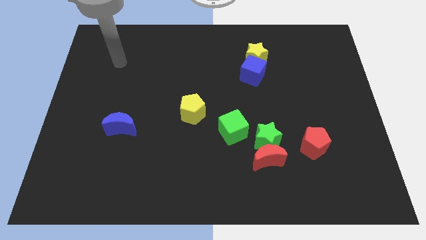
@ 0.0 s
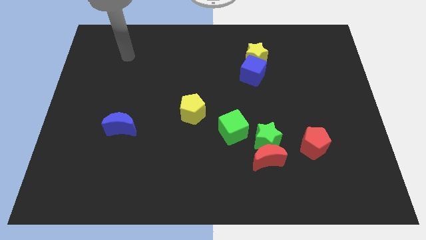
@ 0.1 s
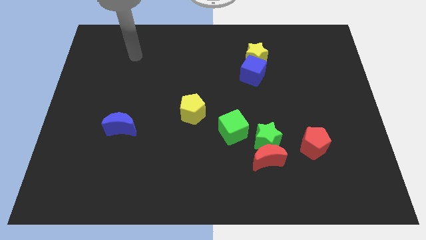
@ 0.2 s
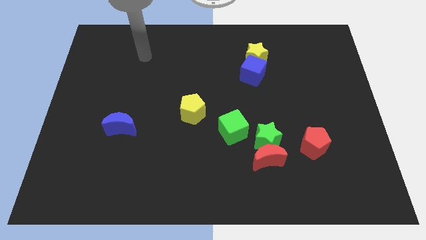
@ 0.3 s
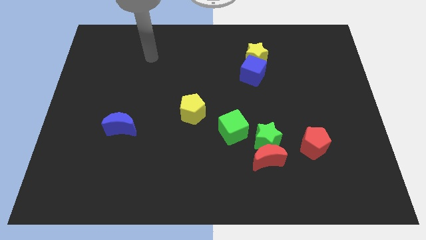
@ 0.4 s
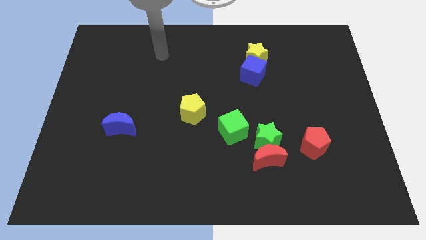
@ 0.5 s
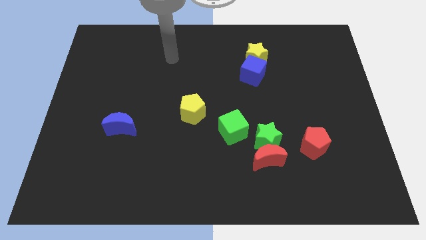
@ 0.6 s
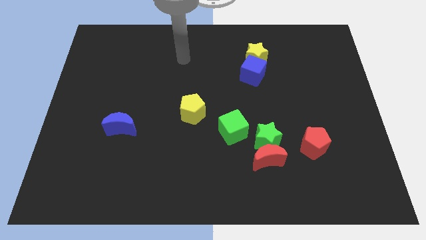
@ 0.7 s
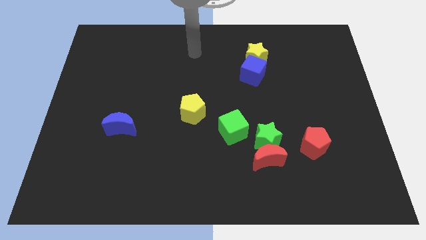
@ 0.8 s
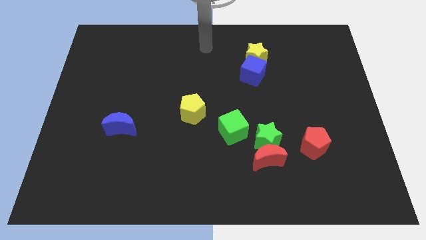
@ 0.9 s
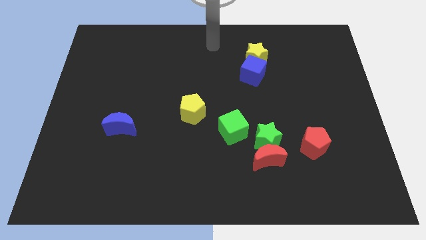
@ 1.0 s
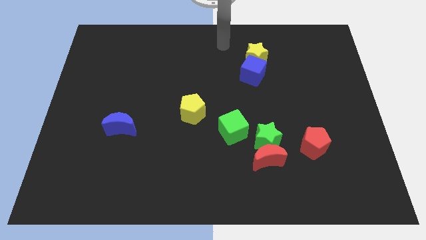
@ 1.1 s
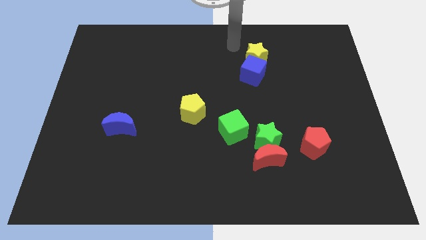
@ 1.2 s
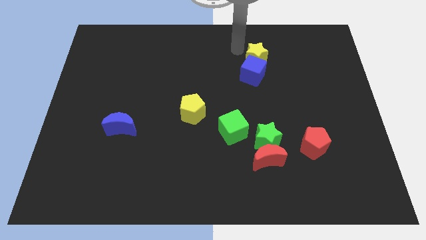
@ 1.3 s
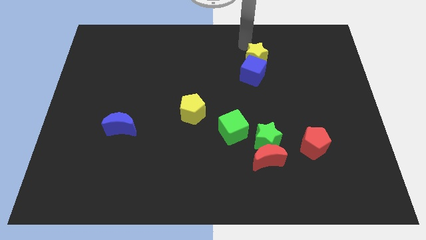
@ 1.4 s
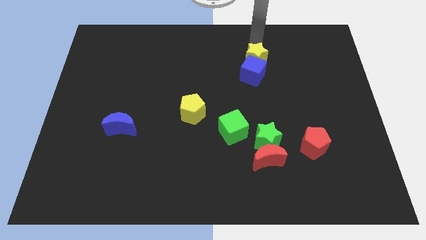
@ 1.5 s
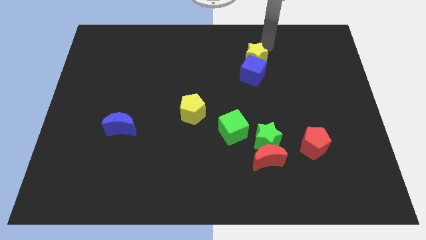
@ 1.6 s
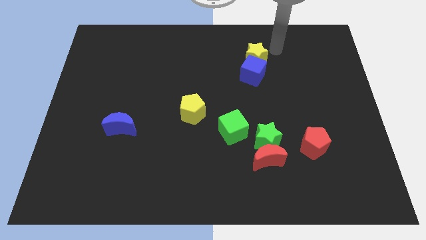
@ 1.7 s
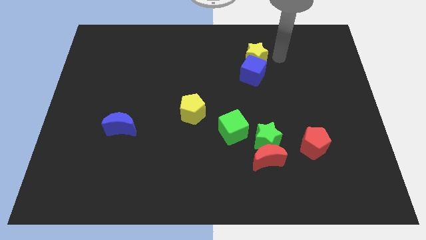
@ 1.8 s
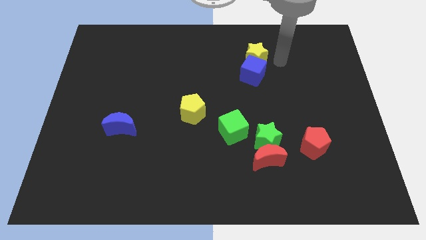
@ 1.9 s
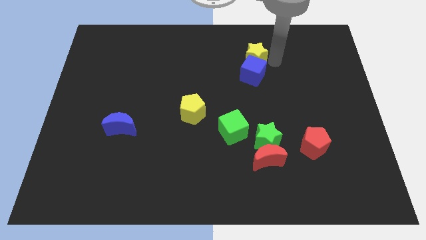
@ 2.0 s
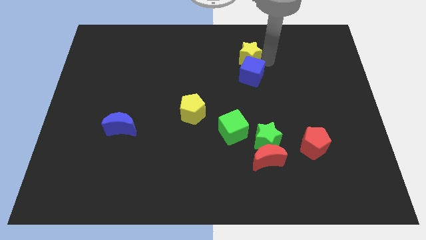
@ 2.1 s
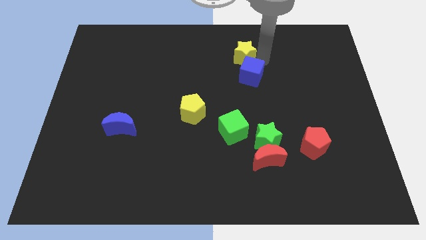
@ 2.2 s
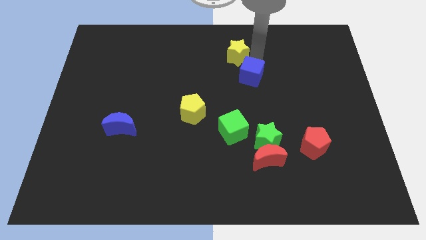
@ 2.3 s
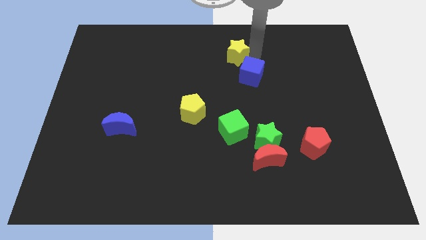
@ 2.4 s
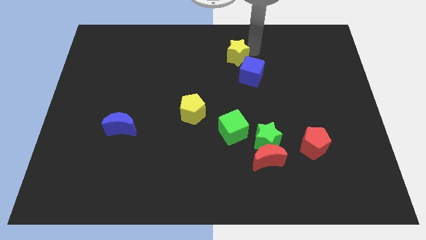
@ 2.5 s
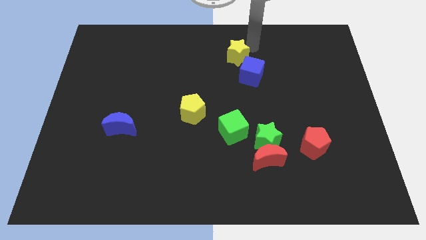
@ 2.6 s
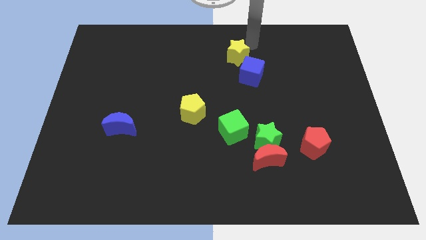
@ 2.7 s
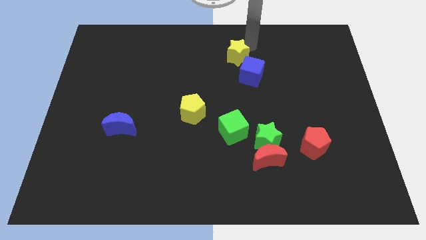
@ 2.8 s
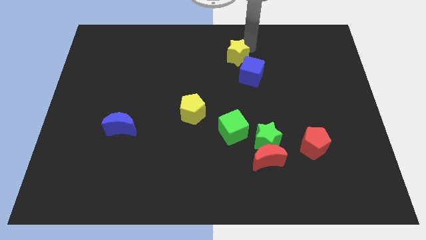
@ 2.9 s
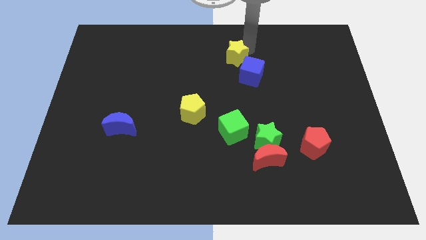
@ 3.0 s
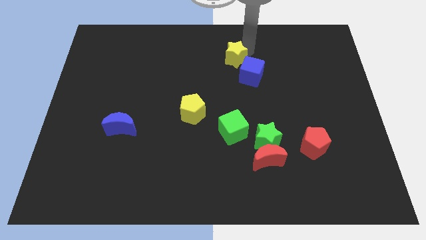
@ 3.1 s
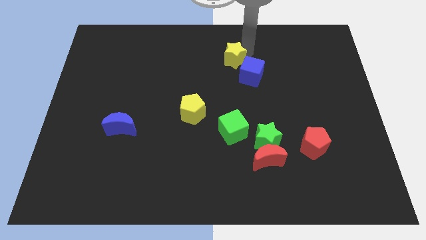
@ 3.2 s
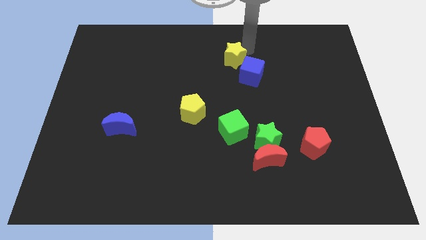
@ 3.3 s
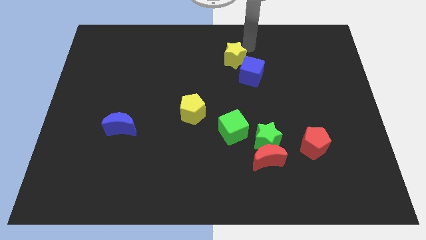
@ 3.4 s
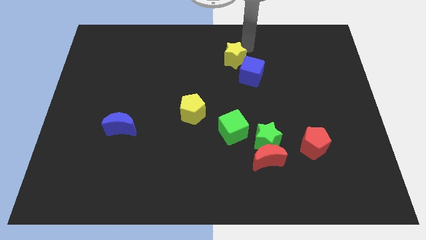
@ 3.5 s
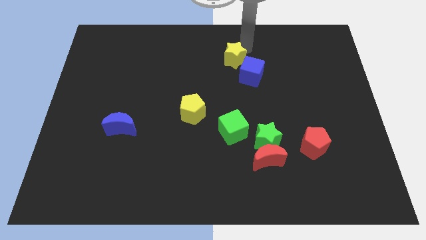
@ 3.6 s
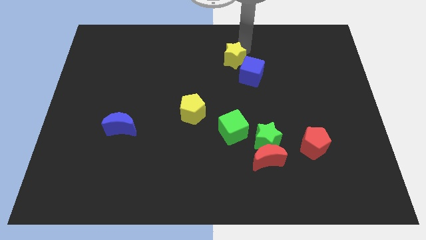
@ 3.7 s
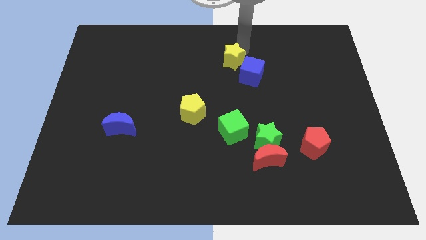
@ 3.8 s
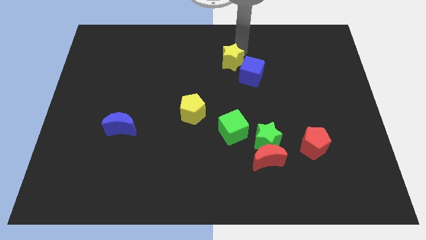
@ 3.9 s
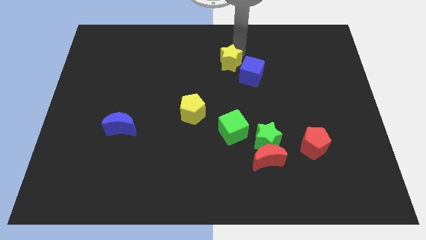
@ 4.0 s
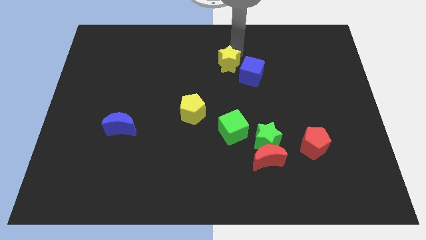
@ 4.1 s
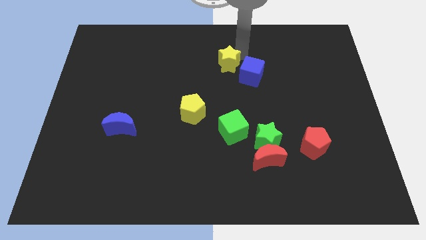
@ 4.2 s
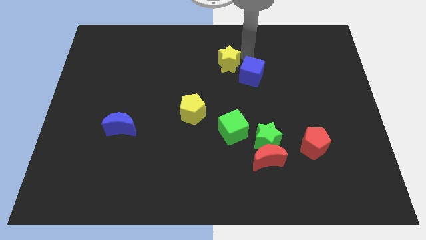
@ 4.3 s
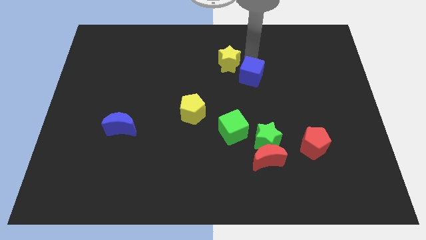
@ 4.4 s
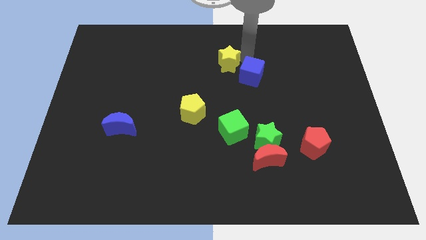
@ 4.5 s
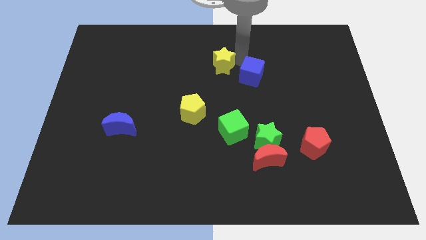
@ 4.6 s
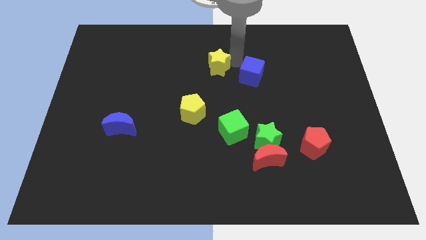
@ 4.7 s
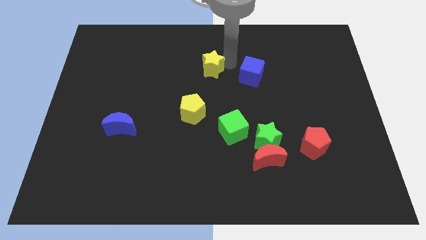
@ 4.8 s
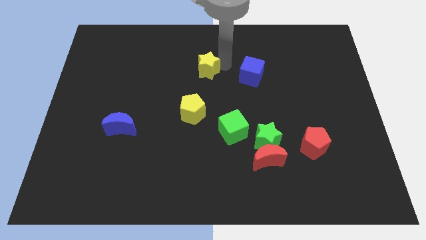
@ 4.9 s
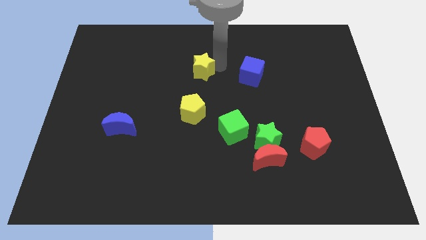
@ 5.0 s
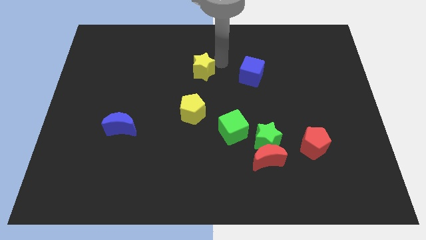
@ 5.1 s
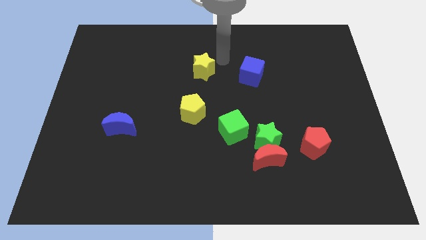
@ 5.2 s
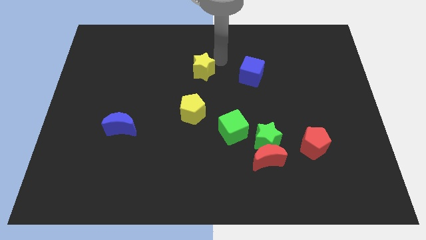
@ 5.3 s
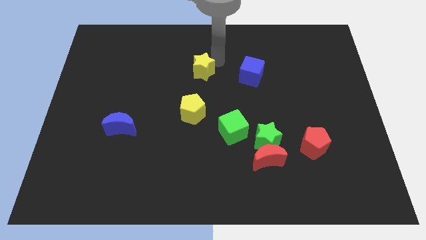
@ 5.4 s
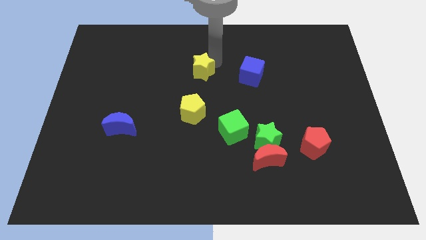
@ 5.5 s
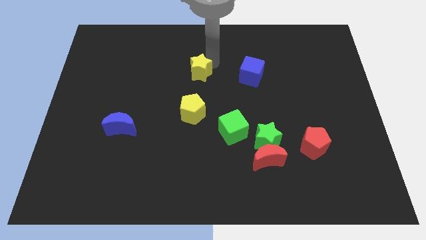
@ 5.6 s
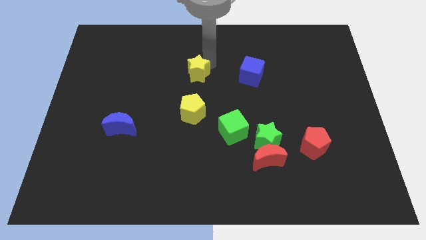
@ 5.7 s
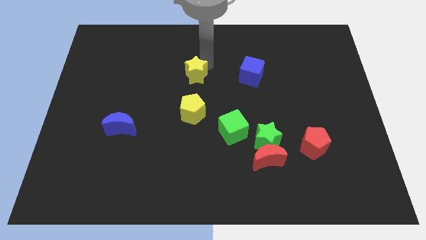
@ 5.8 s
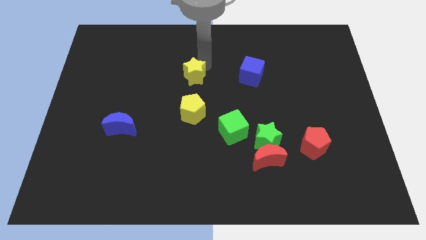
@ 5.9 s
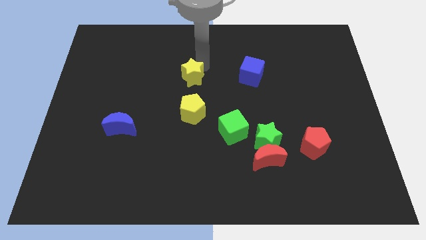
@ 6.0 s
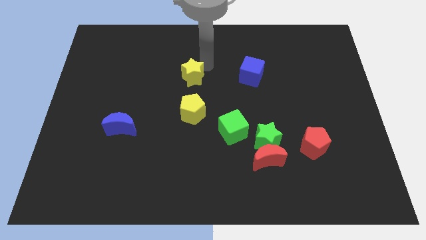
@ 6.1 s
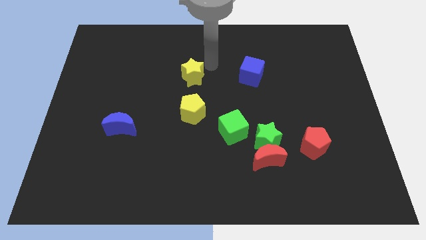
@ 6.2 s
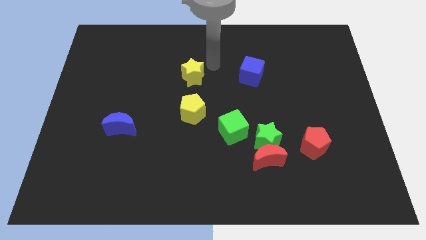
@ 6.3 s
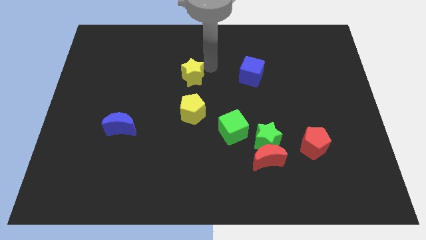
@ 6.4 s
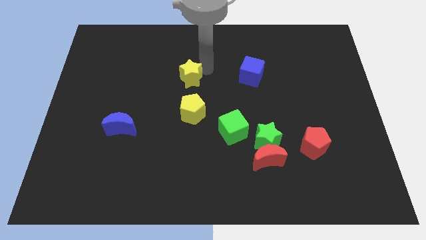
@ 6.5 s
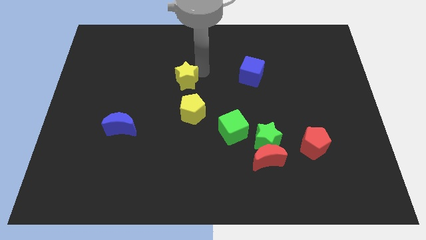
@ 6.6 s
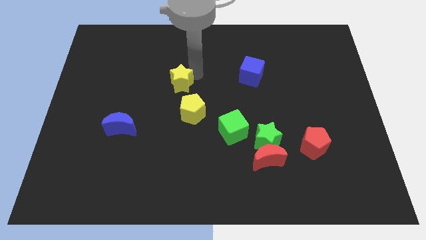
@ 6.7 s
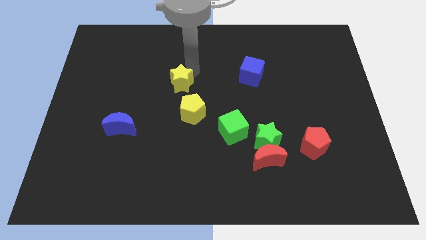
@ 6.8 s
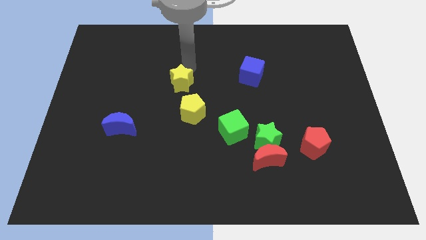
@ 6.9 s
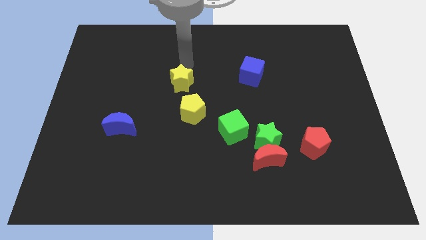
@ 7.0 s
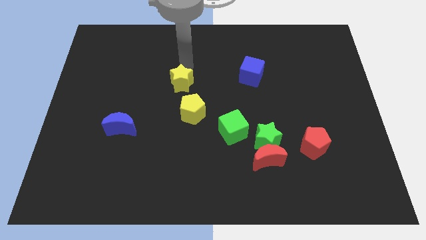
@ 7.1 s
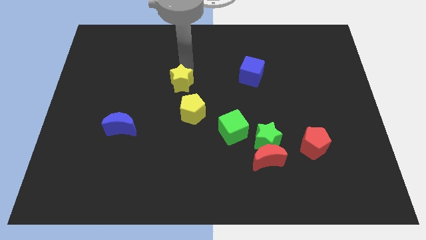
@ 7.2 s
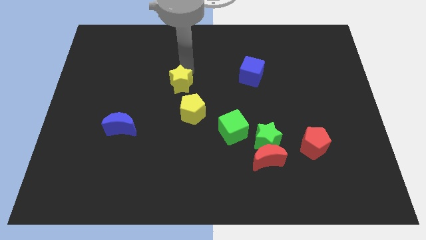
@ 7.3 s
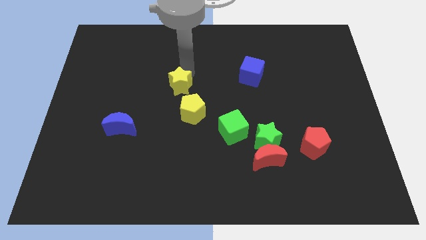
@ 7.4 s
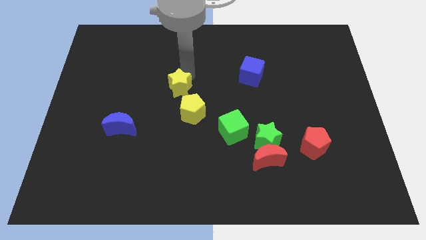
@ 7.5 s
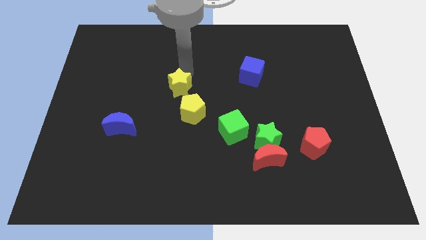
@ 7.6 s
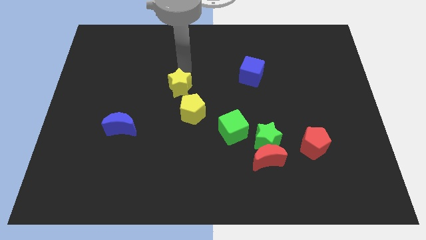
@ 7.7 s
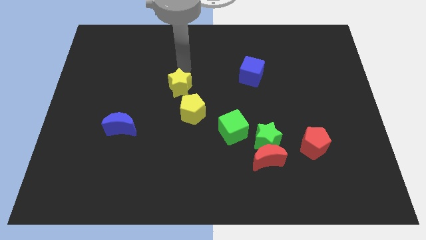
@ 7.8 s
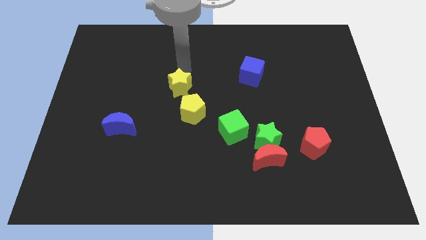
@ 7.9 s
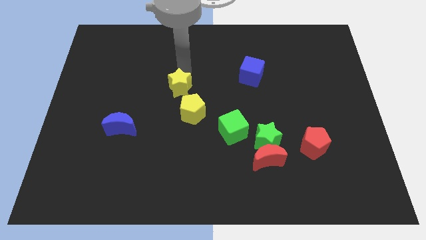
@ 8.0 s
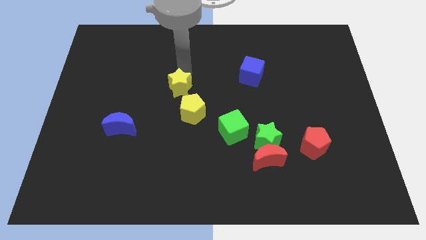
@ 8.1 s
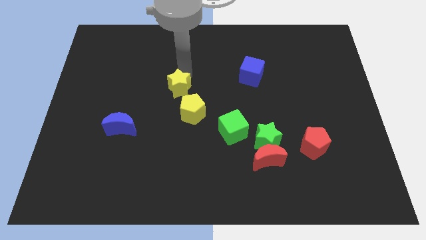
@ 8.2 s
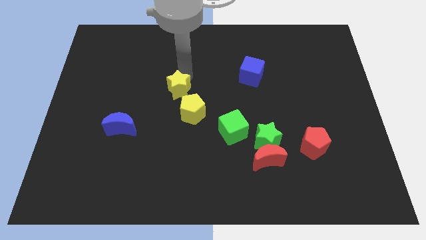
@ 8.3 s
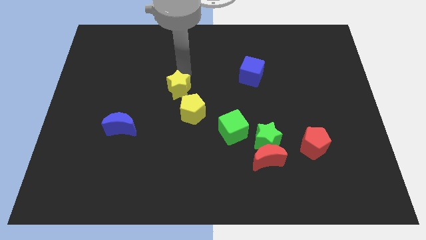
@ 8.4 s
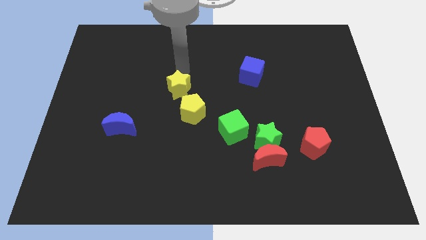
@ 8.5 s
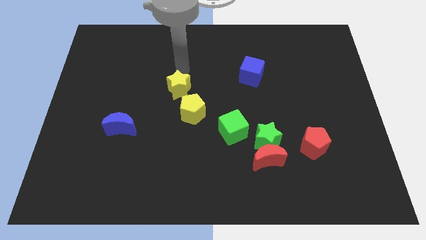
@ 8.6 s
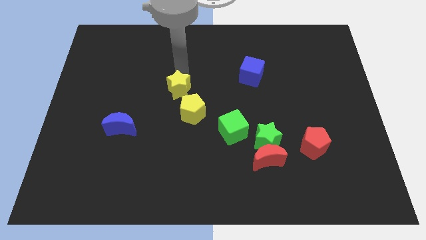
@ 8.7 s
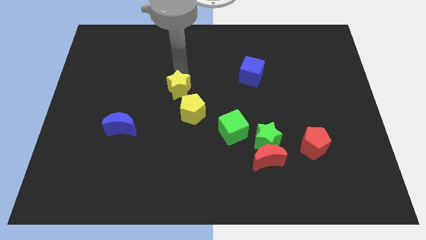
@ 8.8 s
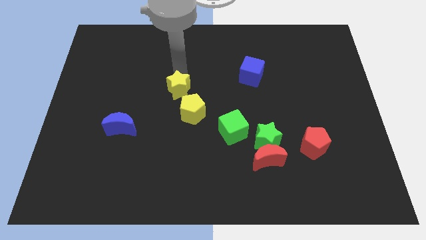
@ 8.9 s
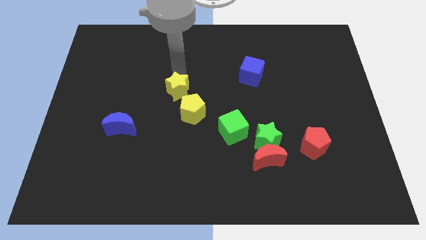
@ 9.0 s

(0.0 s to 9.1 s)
move the yellow star down and left
